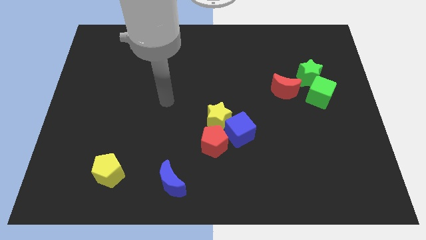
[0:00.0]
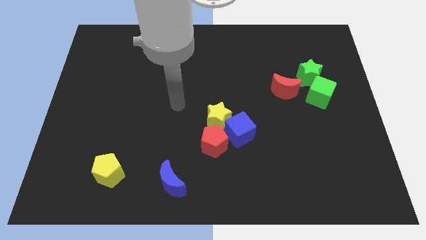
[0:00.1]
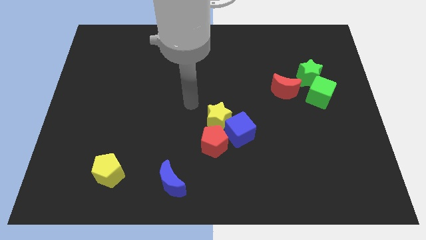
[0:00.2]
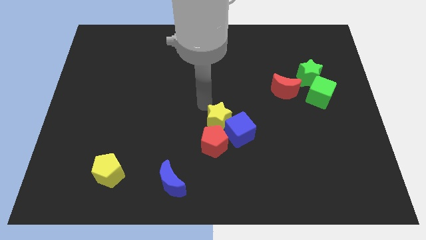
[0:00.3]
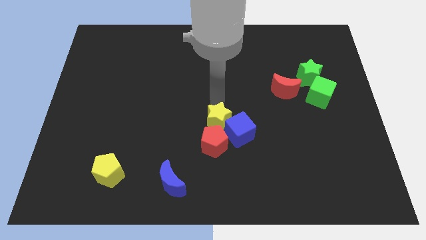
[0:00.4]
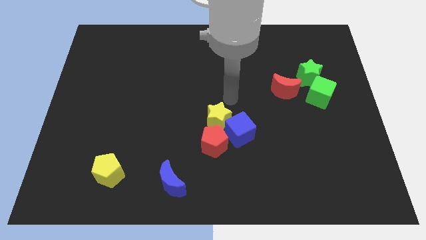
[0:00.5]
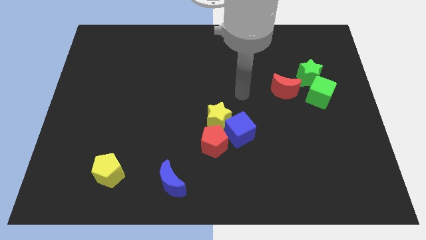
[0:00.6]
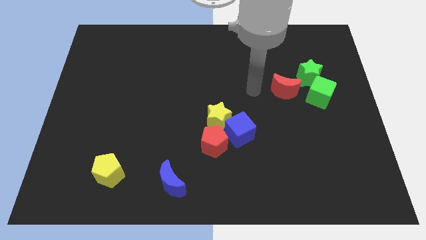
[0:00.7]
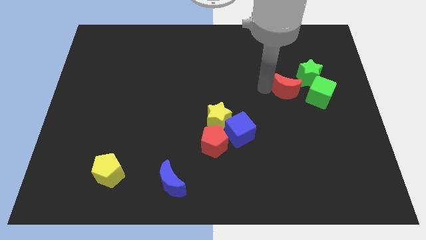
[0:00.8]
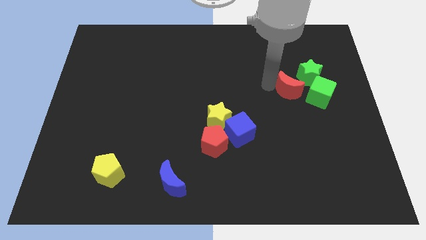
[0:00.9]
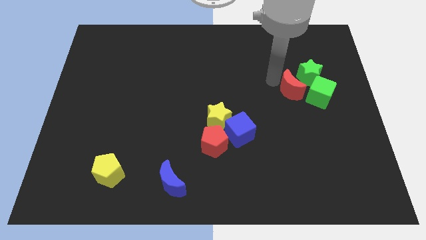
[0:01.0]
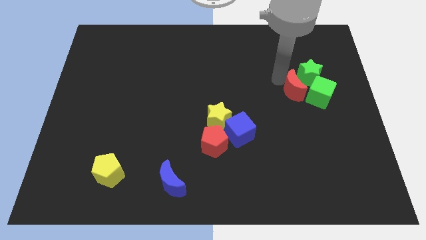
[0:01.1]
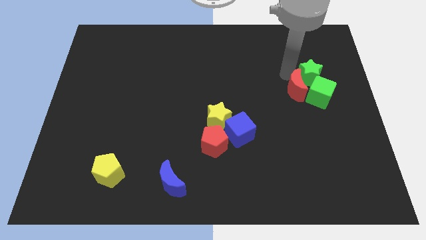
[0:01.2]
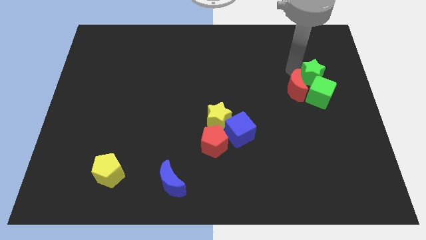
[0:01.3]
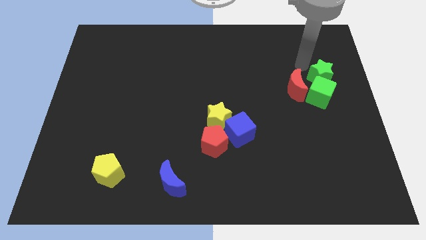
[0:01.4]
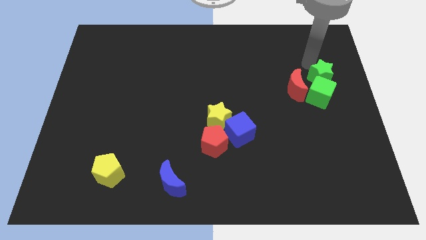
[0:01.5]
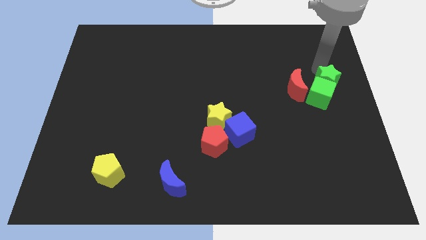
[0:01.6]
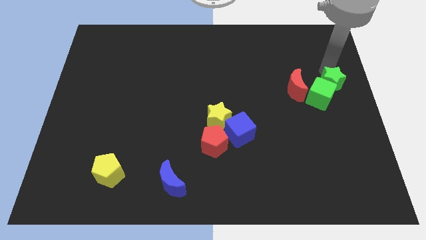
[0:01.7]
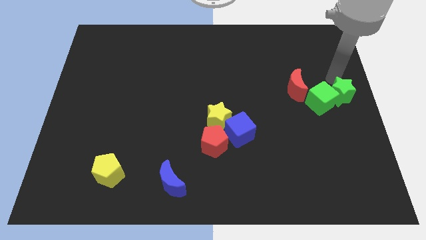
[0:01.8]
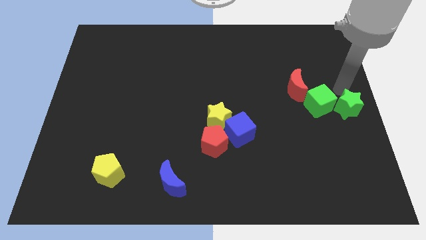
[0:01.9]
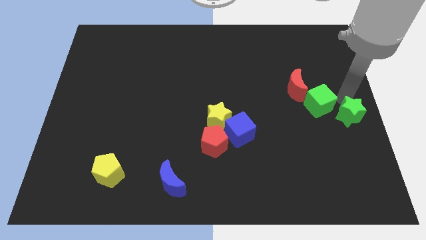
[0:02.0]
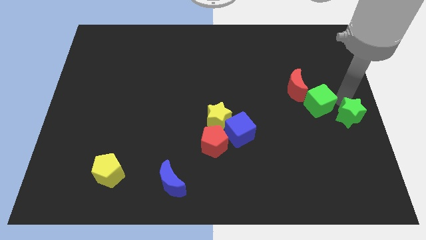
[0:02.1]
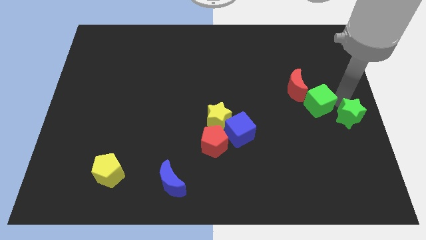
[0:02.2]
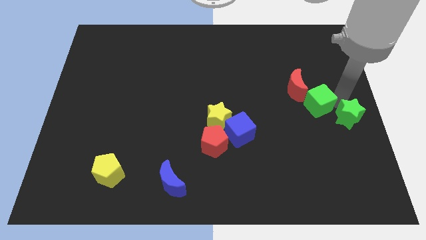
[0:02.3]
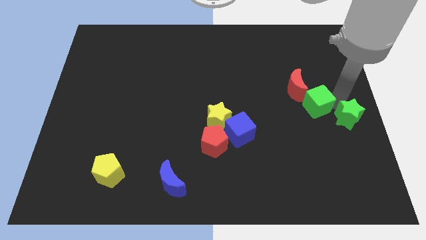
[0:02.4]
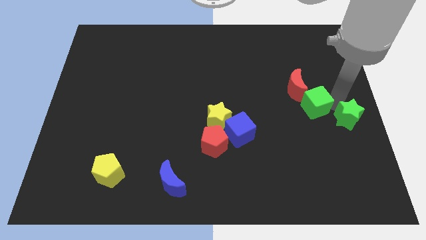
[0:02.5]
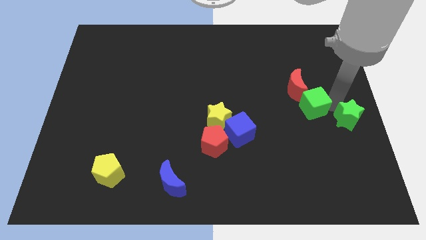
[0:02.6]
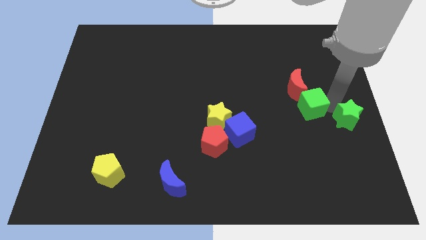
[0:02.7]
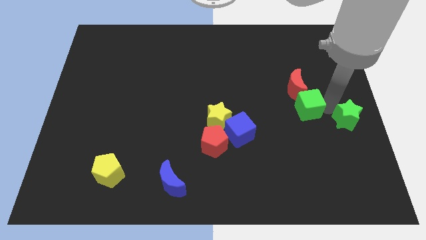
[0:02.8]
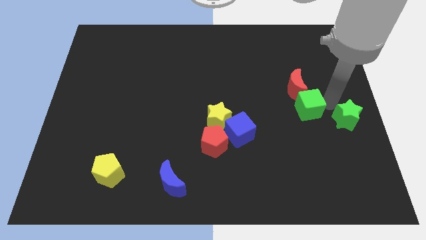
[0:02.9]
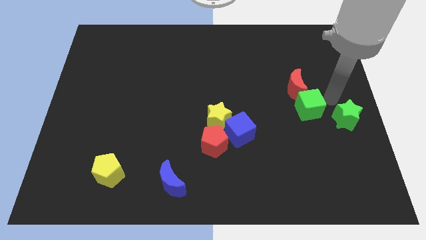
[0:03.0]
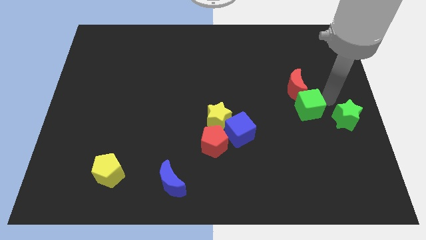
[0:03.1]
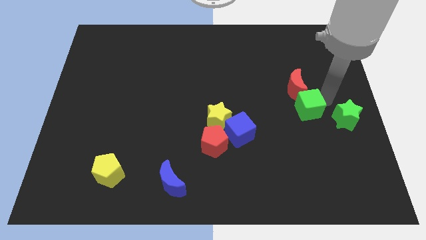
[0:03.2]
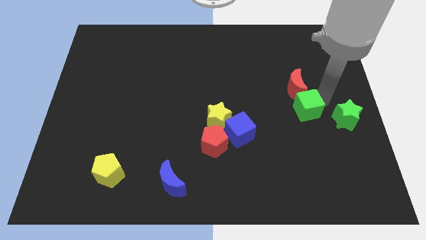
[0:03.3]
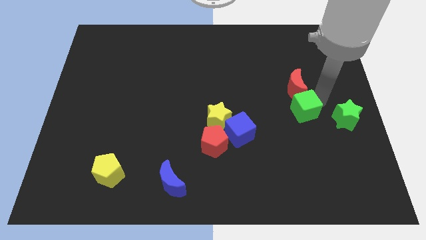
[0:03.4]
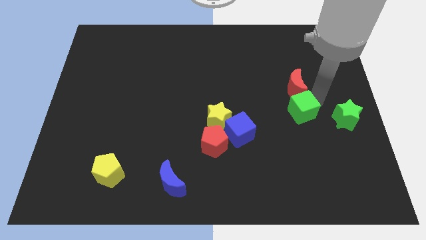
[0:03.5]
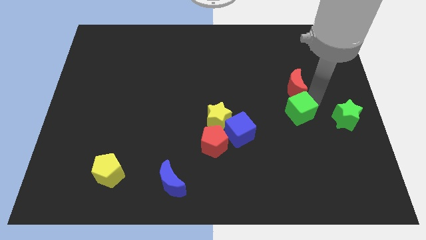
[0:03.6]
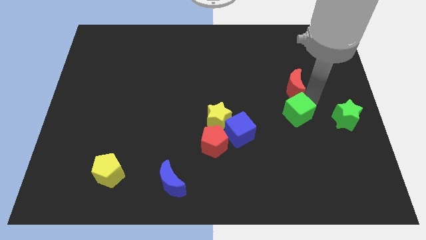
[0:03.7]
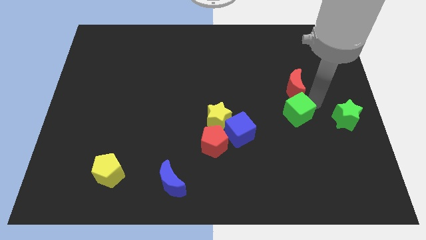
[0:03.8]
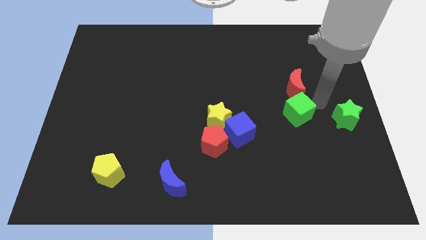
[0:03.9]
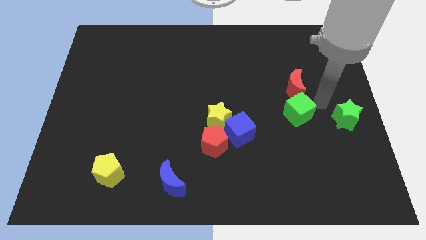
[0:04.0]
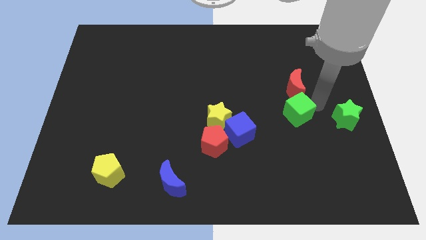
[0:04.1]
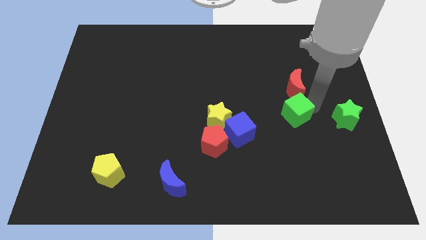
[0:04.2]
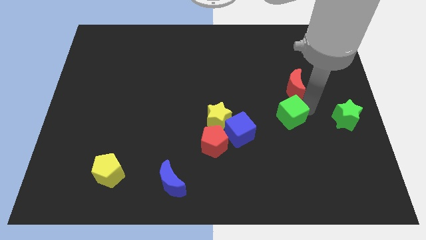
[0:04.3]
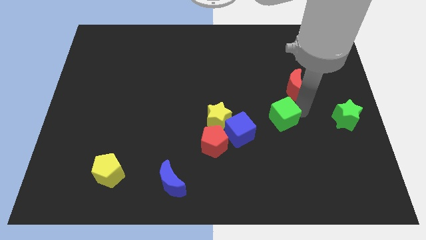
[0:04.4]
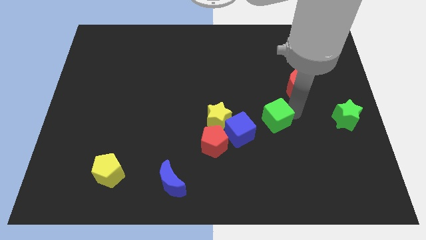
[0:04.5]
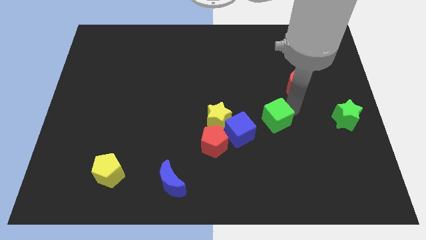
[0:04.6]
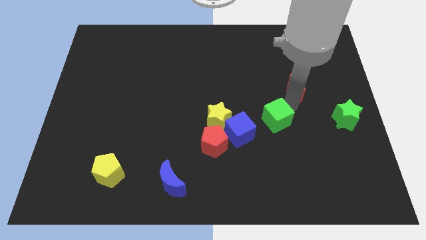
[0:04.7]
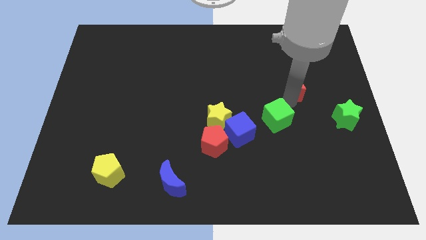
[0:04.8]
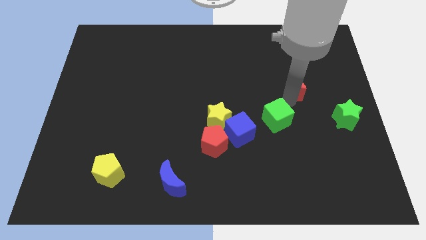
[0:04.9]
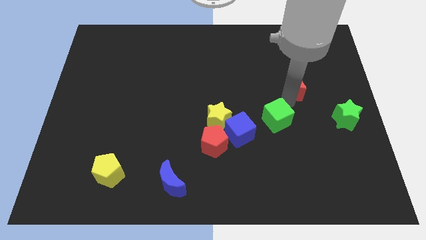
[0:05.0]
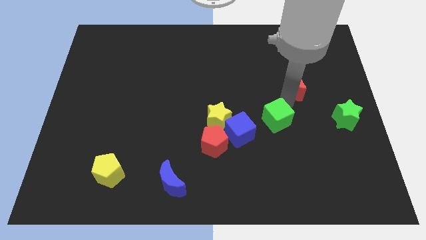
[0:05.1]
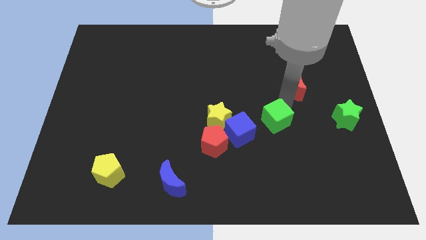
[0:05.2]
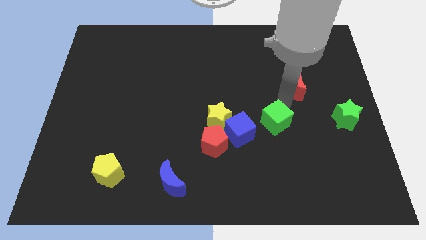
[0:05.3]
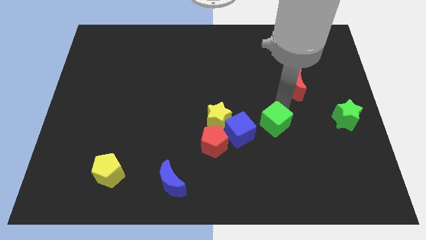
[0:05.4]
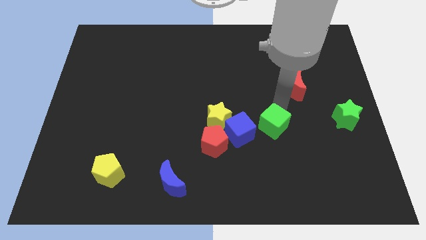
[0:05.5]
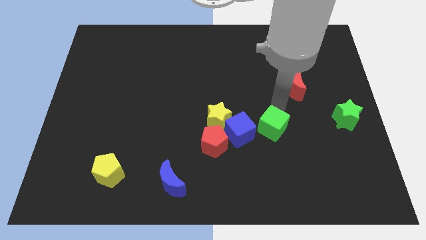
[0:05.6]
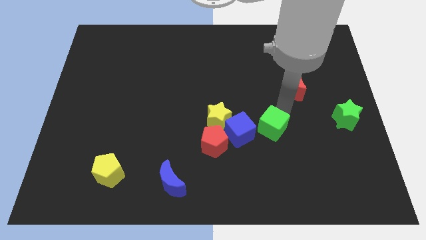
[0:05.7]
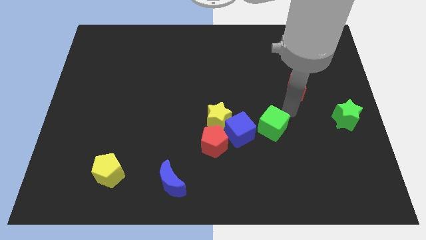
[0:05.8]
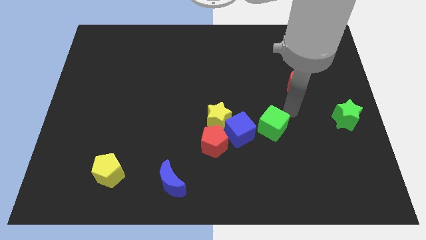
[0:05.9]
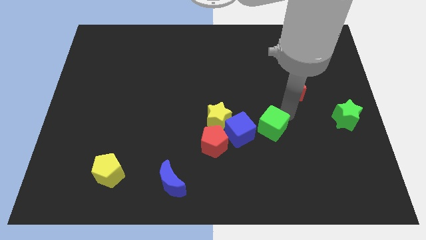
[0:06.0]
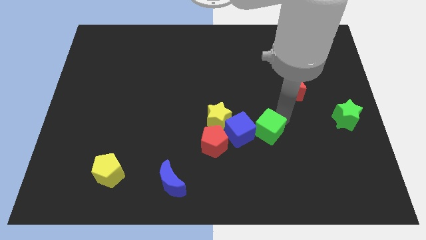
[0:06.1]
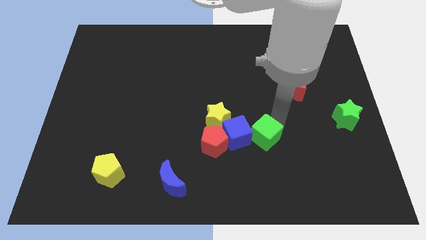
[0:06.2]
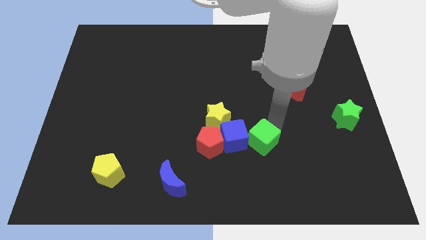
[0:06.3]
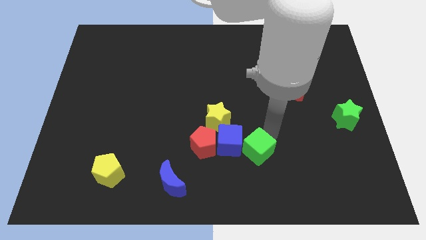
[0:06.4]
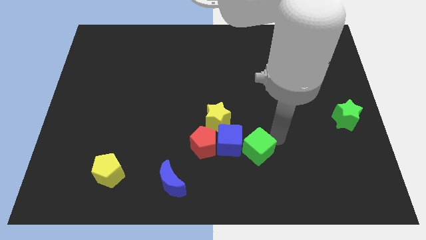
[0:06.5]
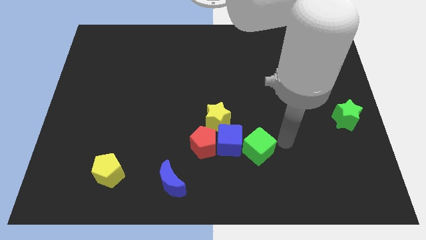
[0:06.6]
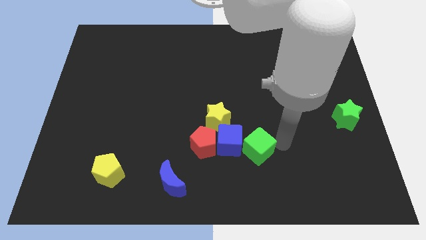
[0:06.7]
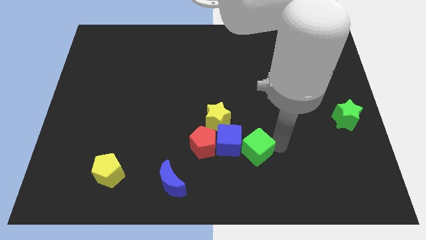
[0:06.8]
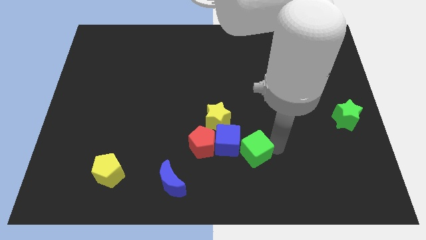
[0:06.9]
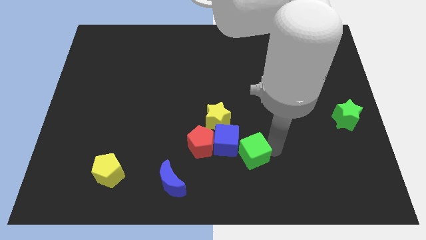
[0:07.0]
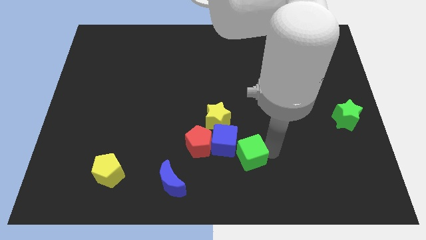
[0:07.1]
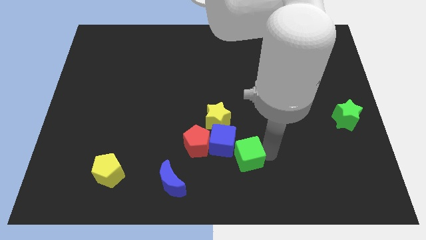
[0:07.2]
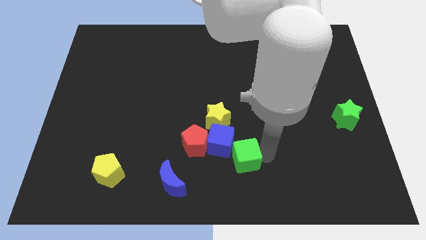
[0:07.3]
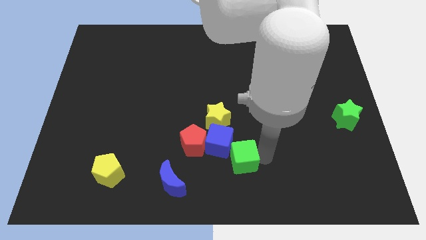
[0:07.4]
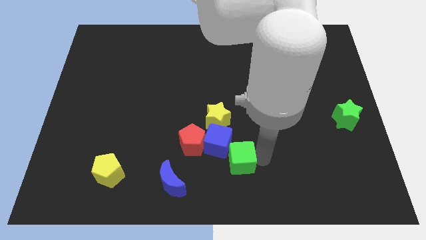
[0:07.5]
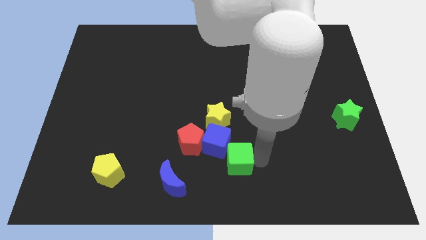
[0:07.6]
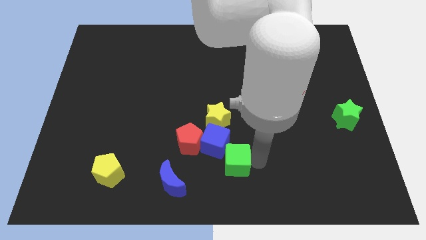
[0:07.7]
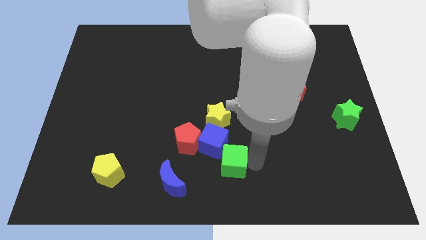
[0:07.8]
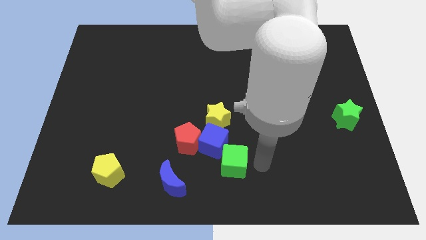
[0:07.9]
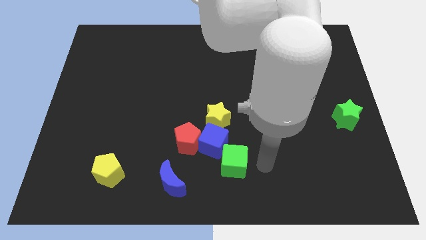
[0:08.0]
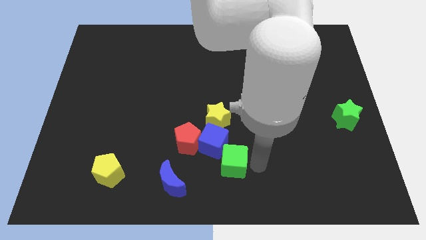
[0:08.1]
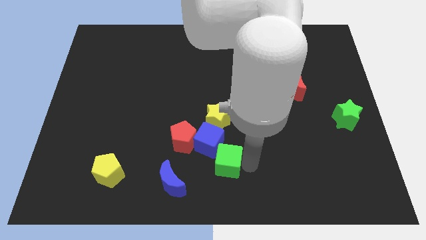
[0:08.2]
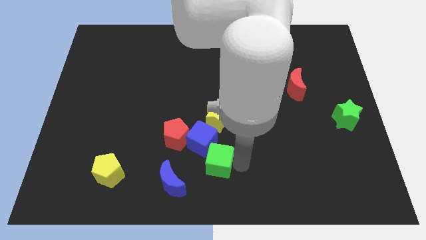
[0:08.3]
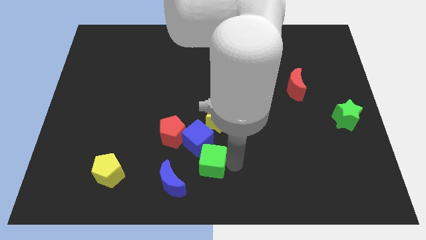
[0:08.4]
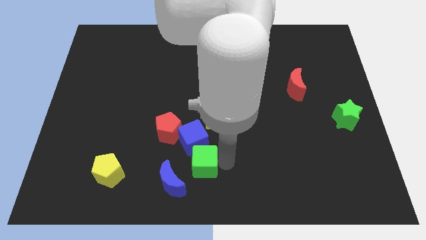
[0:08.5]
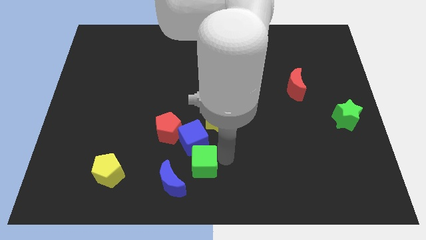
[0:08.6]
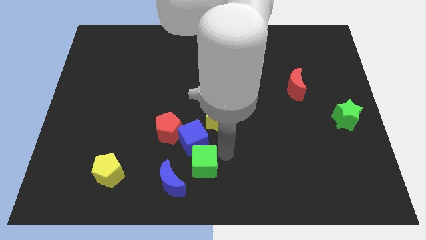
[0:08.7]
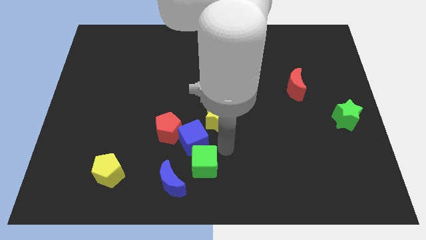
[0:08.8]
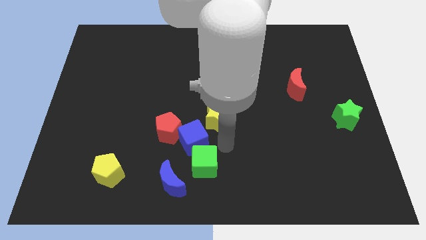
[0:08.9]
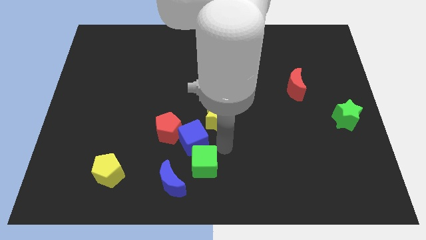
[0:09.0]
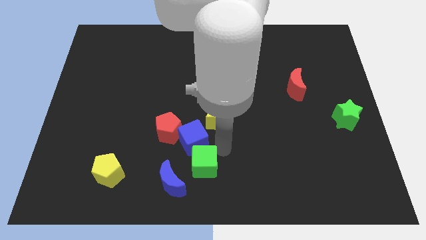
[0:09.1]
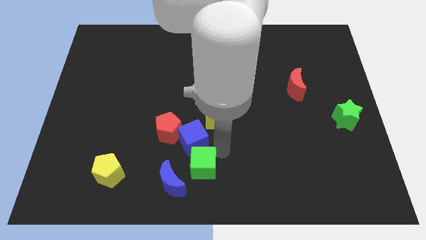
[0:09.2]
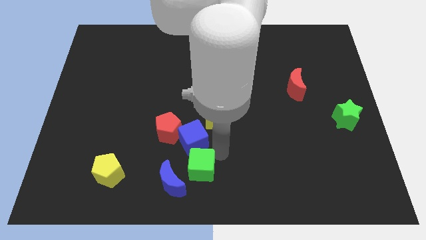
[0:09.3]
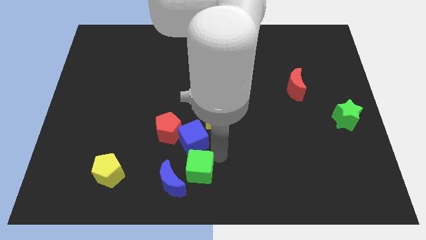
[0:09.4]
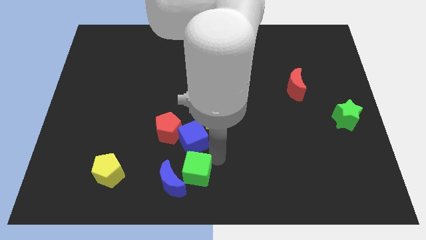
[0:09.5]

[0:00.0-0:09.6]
slide the green cube close to the blue moon
